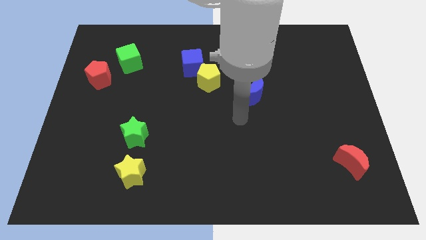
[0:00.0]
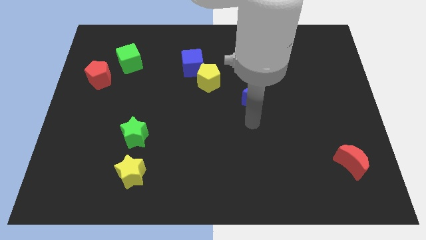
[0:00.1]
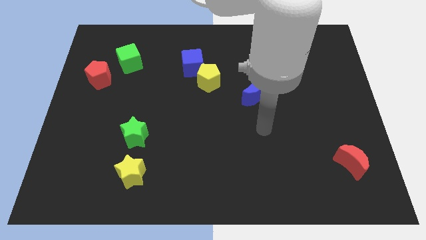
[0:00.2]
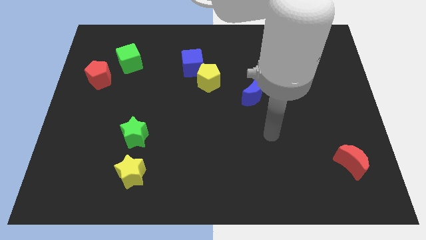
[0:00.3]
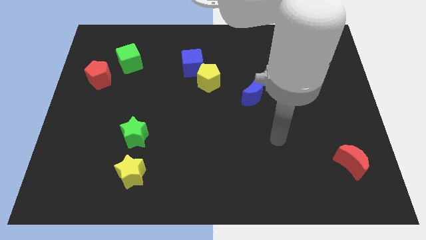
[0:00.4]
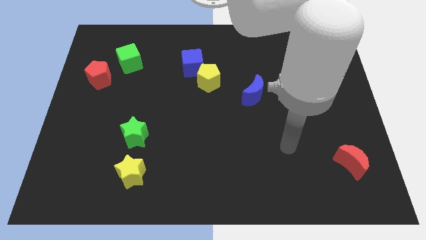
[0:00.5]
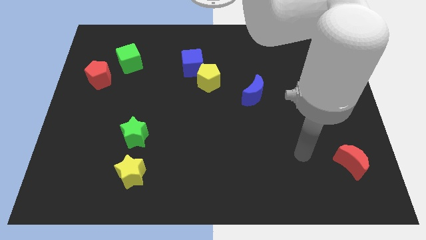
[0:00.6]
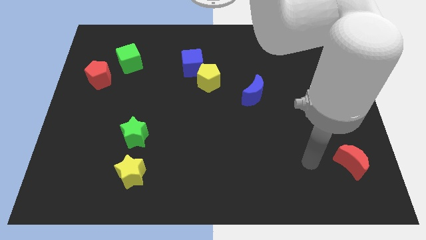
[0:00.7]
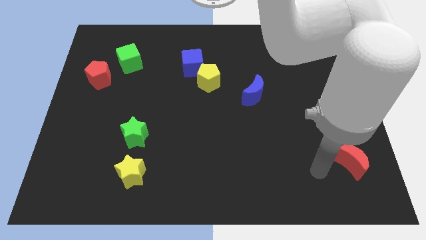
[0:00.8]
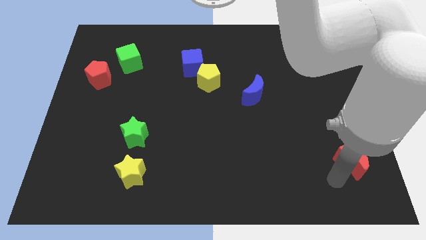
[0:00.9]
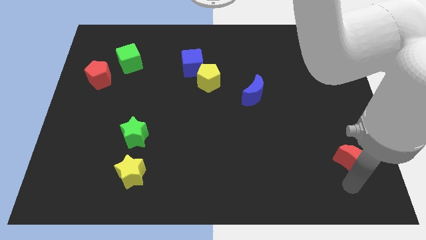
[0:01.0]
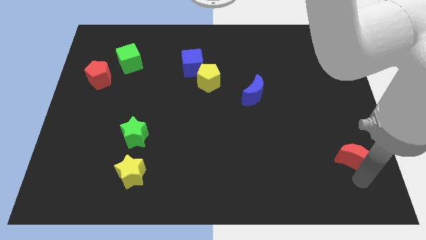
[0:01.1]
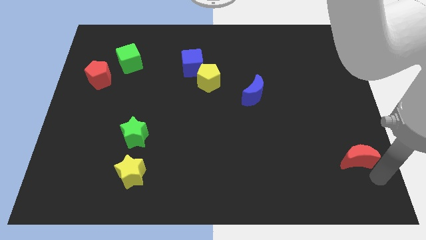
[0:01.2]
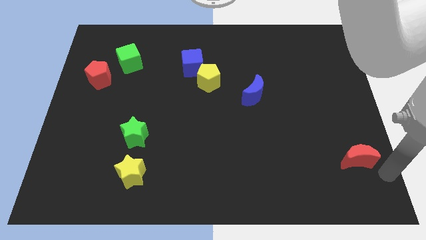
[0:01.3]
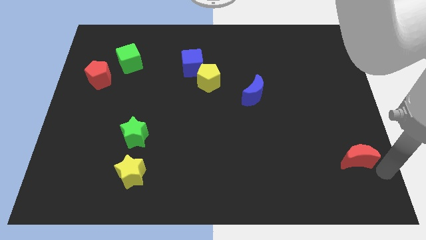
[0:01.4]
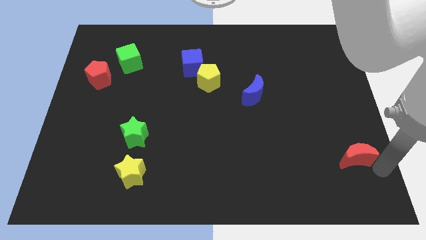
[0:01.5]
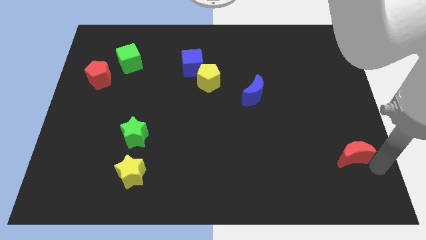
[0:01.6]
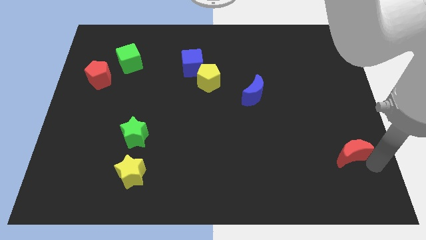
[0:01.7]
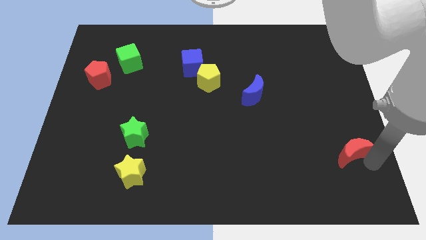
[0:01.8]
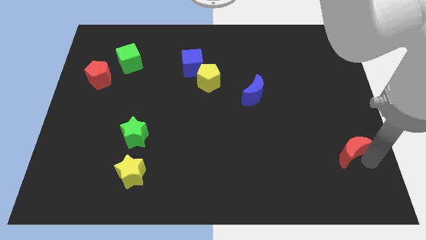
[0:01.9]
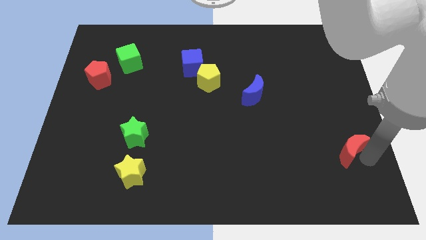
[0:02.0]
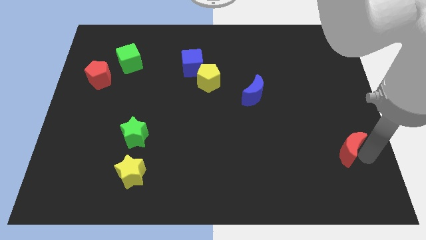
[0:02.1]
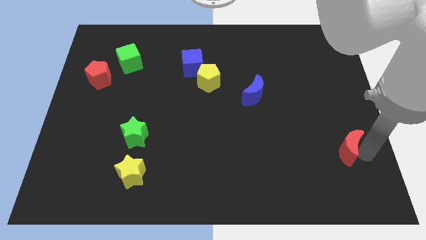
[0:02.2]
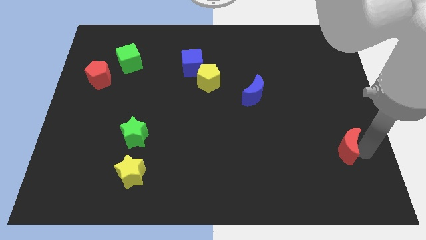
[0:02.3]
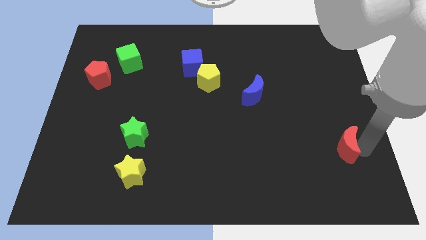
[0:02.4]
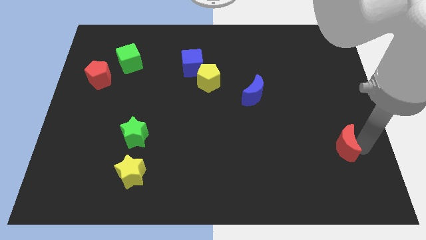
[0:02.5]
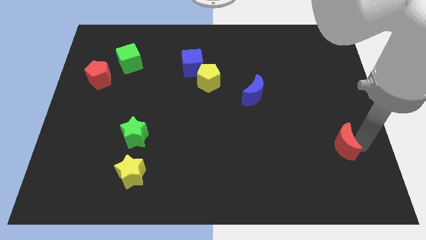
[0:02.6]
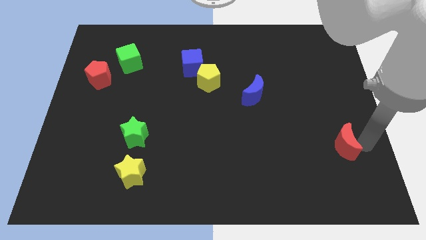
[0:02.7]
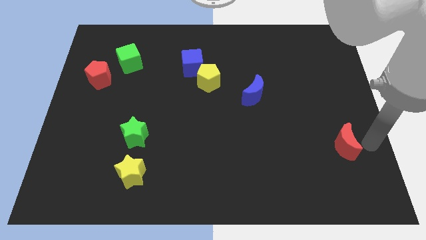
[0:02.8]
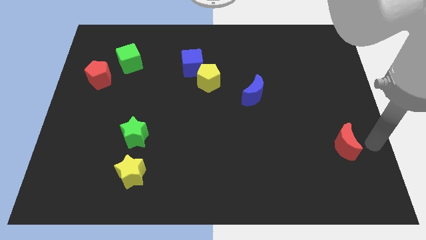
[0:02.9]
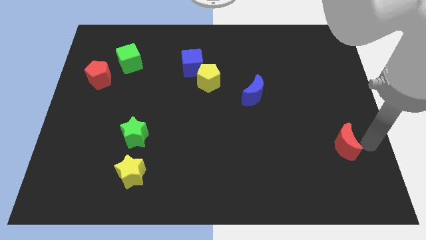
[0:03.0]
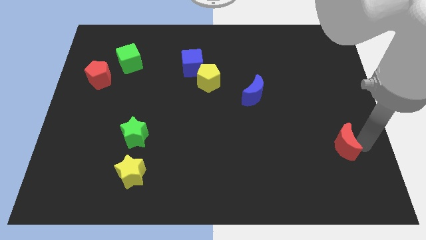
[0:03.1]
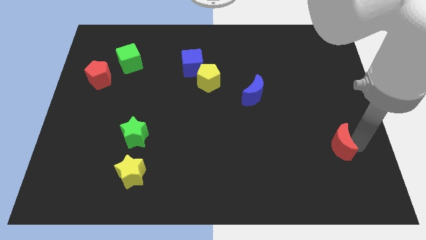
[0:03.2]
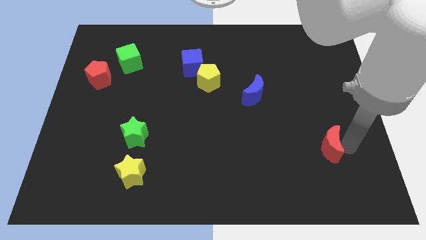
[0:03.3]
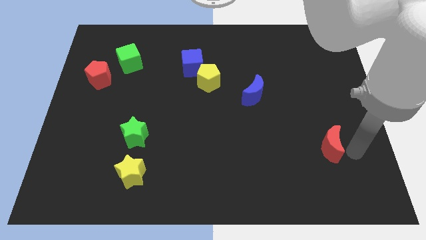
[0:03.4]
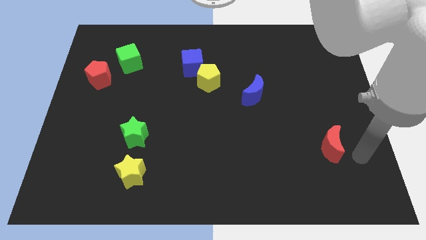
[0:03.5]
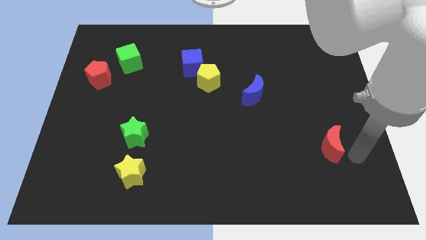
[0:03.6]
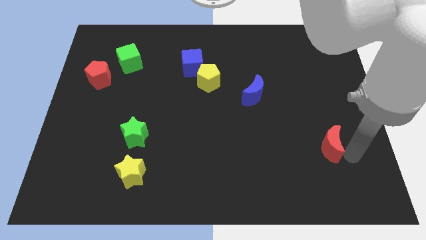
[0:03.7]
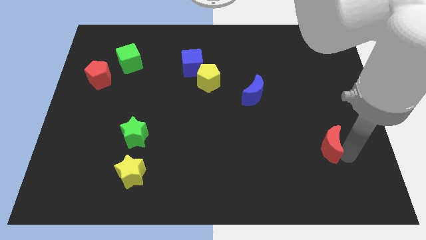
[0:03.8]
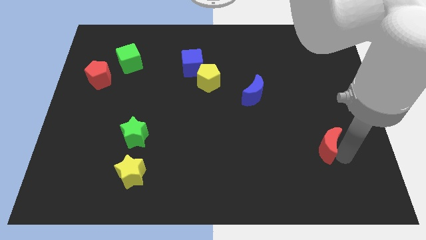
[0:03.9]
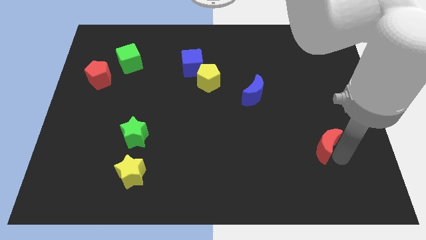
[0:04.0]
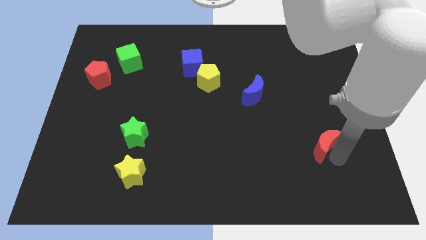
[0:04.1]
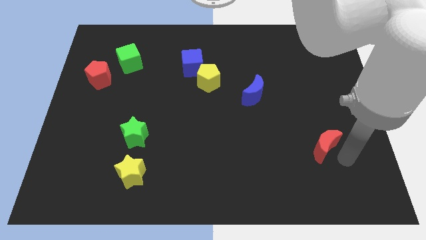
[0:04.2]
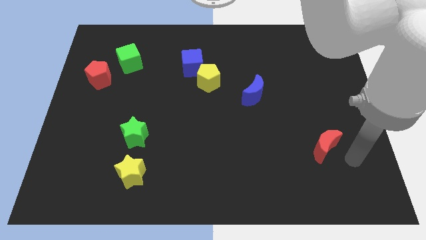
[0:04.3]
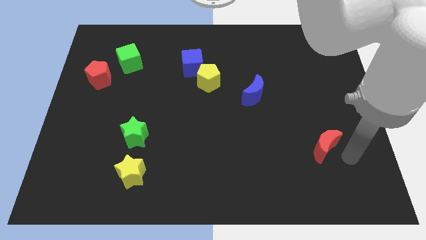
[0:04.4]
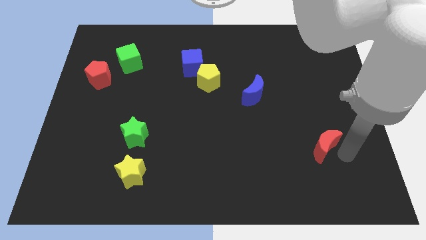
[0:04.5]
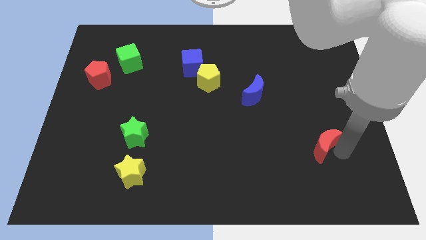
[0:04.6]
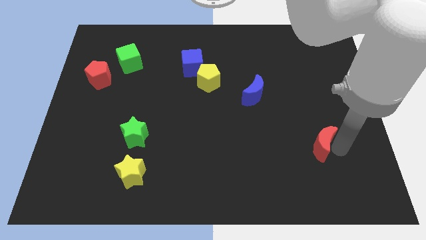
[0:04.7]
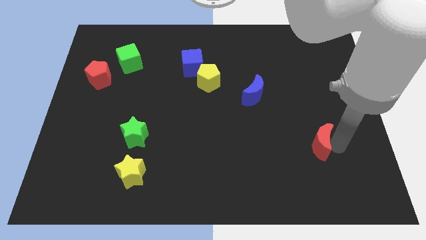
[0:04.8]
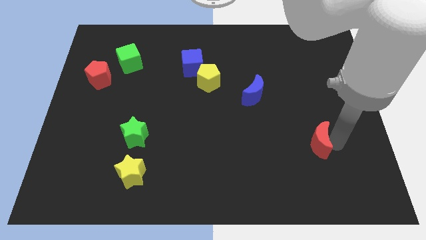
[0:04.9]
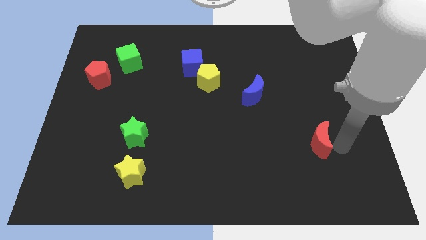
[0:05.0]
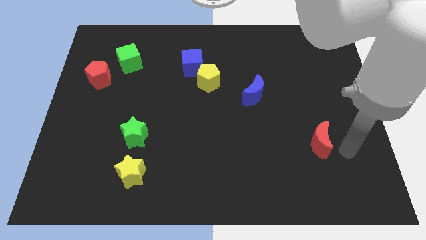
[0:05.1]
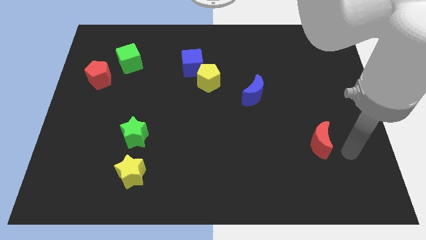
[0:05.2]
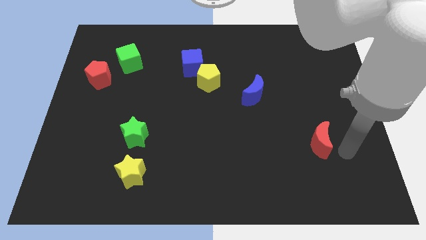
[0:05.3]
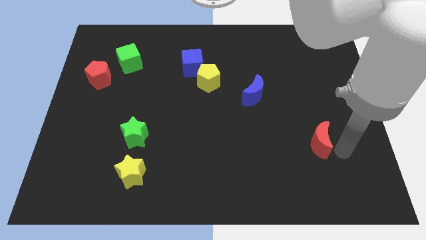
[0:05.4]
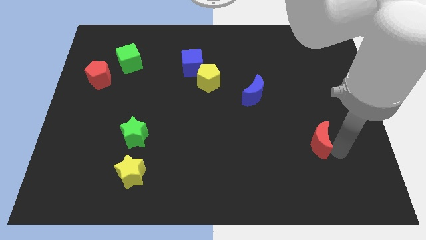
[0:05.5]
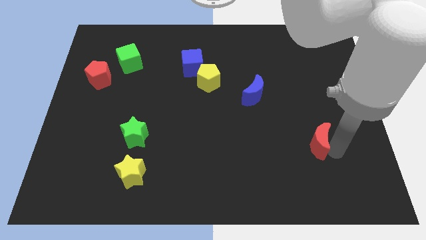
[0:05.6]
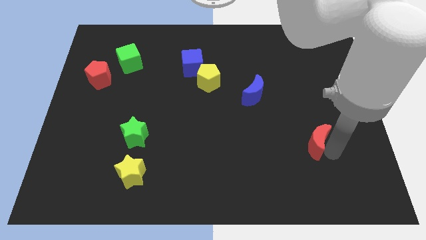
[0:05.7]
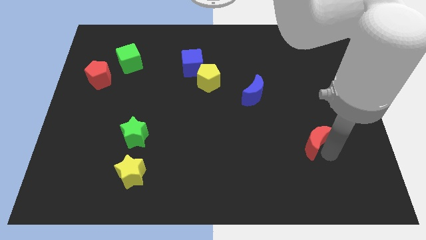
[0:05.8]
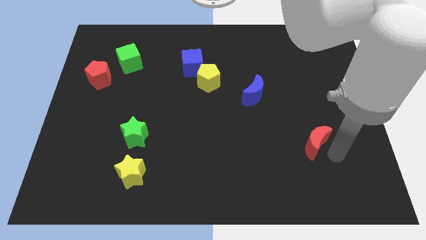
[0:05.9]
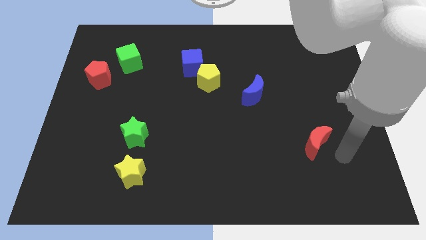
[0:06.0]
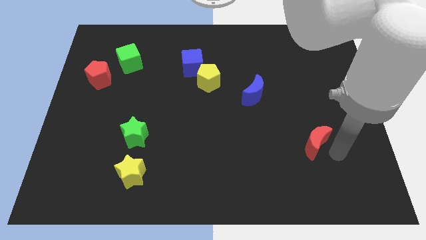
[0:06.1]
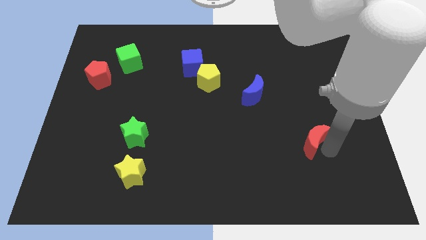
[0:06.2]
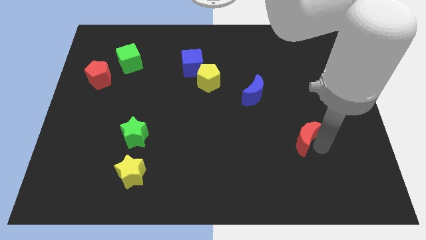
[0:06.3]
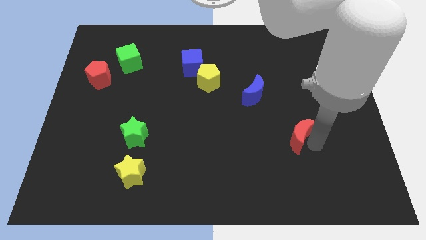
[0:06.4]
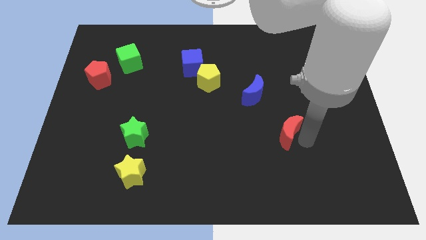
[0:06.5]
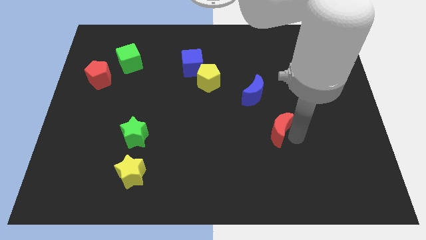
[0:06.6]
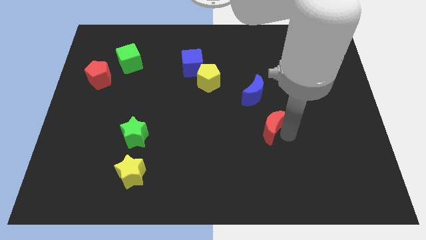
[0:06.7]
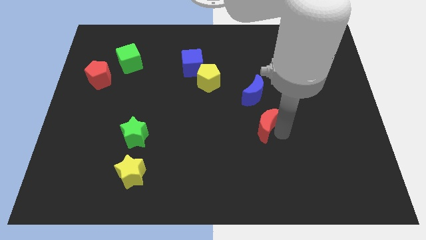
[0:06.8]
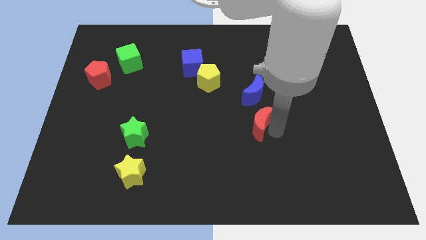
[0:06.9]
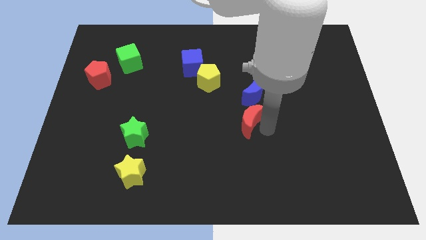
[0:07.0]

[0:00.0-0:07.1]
put the red moon to the middle
